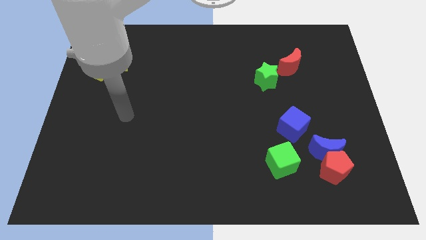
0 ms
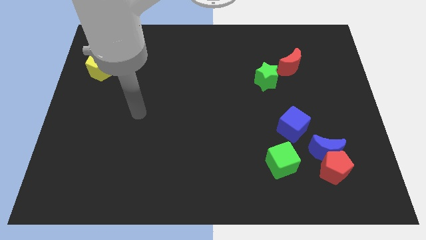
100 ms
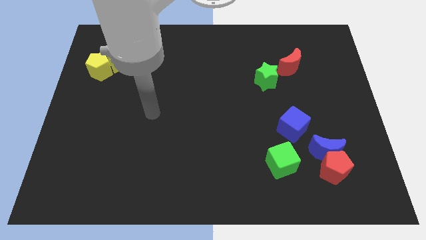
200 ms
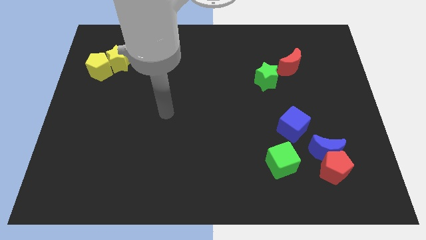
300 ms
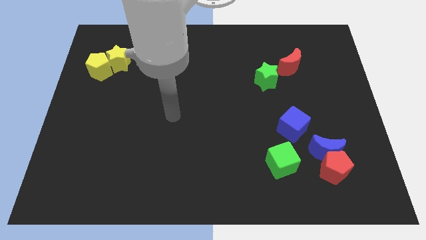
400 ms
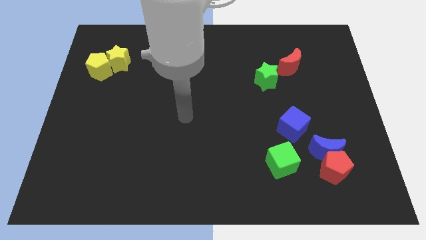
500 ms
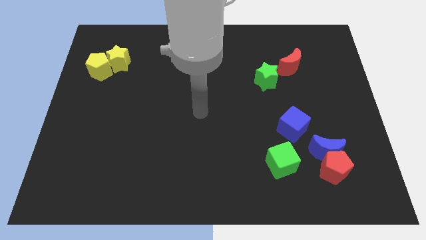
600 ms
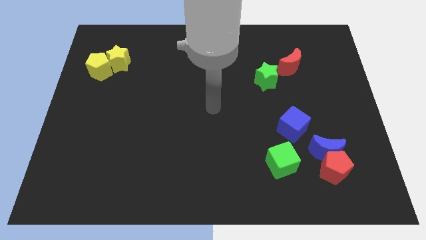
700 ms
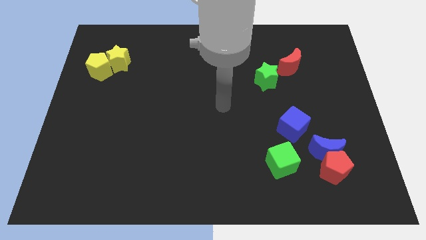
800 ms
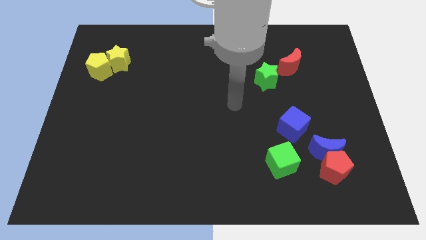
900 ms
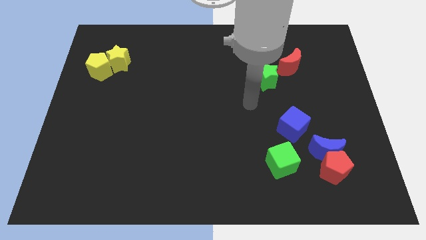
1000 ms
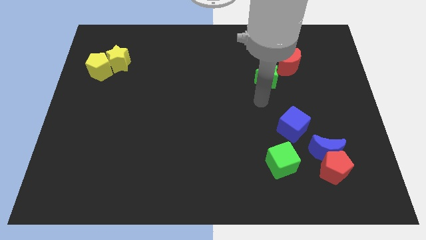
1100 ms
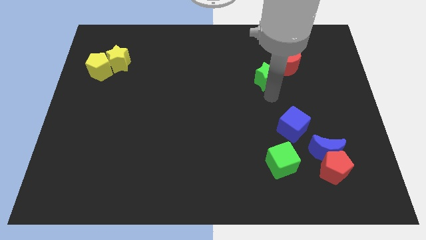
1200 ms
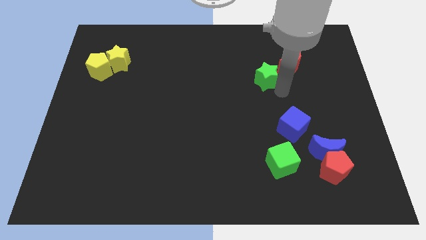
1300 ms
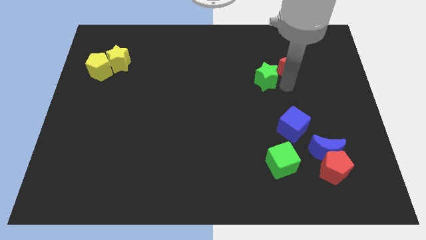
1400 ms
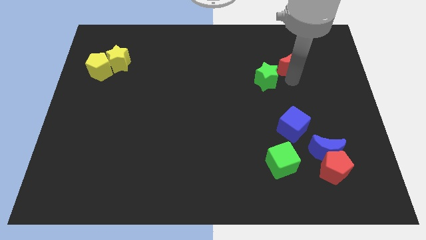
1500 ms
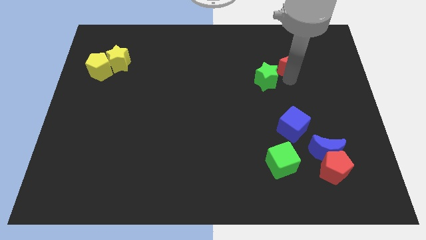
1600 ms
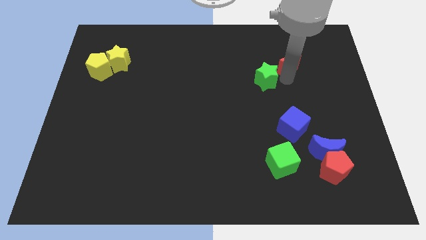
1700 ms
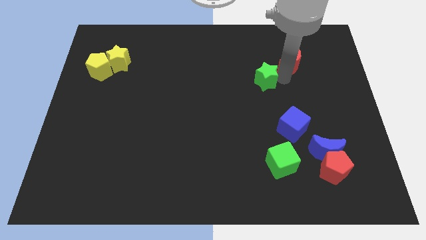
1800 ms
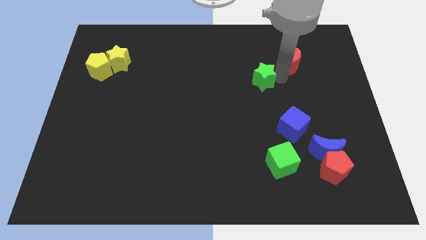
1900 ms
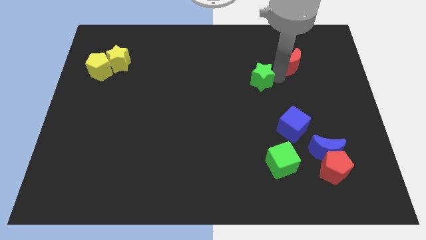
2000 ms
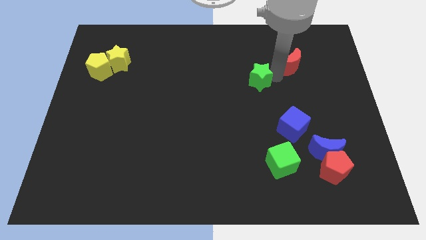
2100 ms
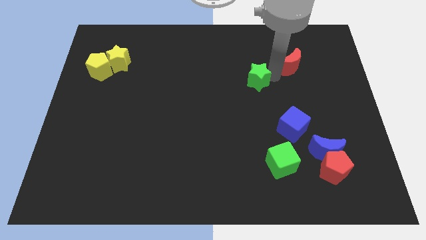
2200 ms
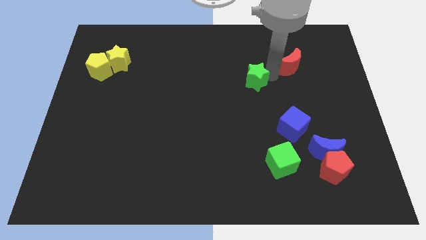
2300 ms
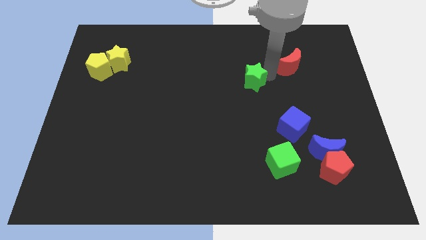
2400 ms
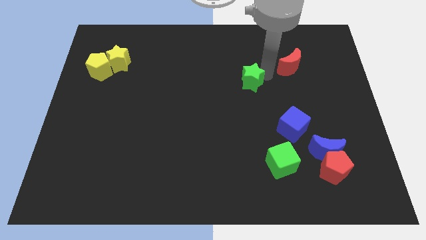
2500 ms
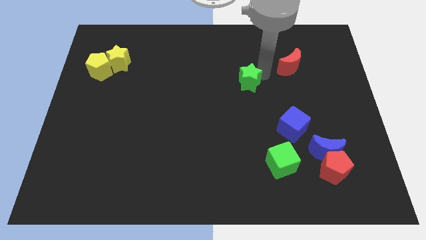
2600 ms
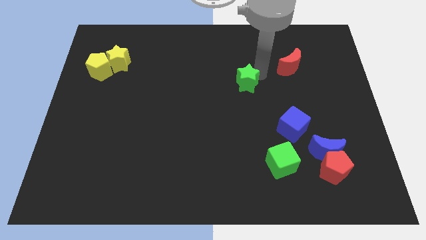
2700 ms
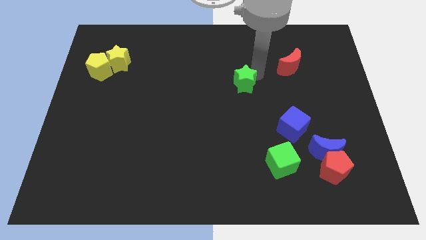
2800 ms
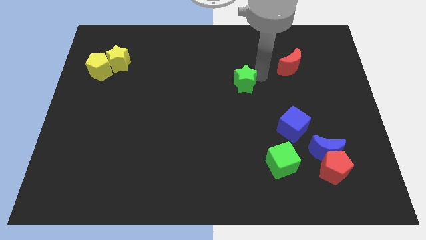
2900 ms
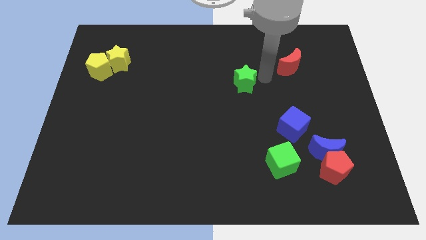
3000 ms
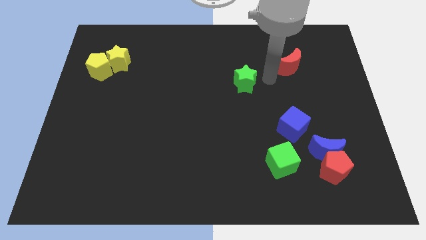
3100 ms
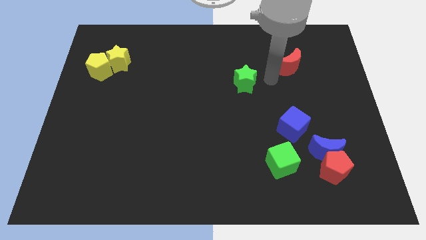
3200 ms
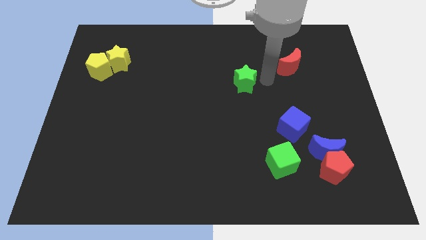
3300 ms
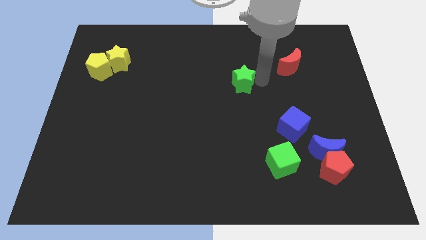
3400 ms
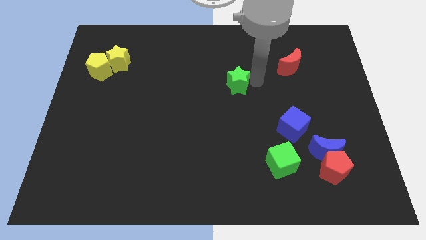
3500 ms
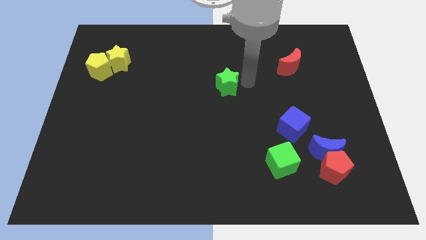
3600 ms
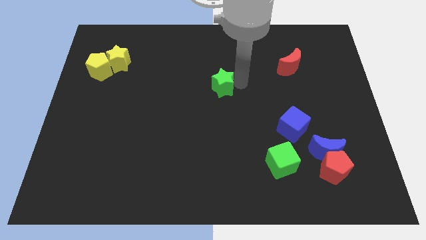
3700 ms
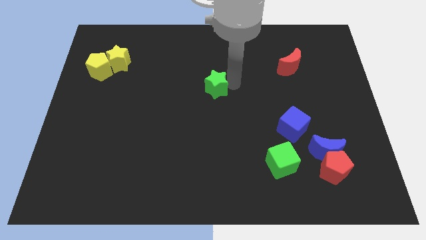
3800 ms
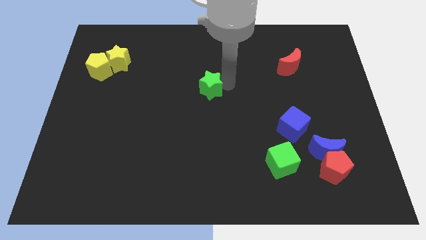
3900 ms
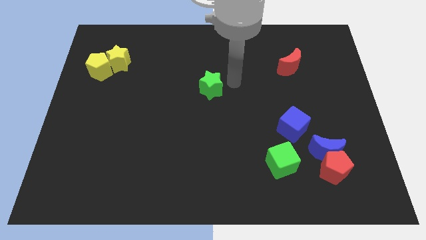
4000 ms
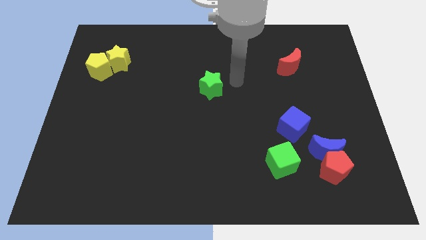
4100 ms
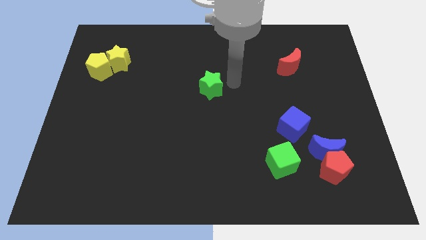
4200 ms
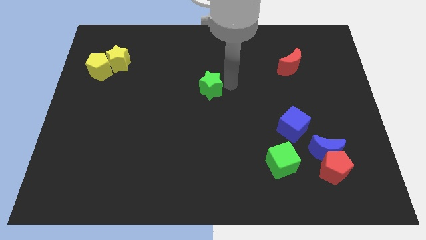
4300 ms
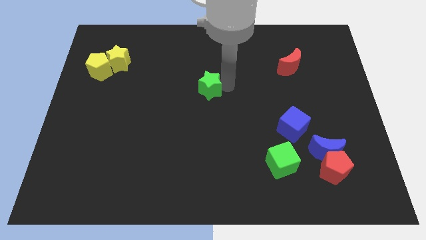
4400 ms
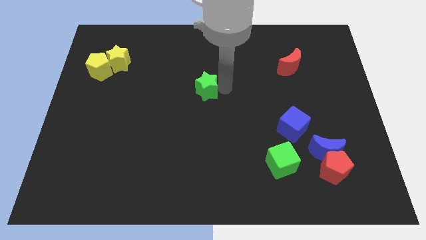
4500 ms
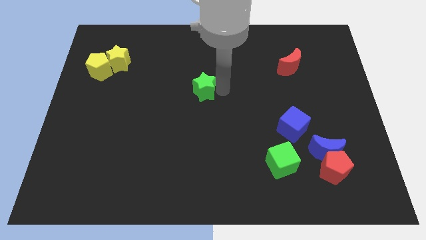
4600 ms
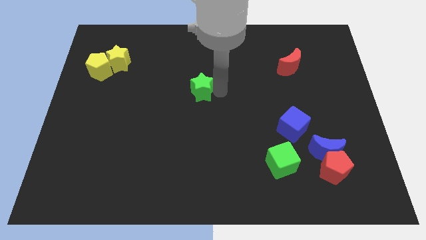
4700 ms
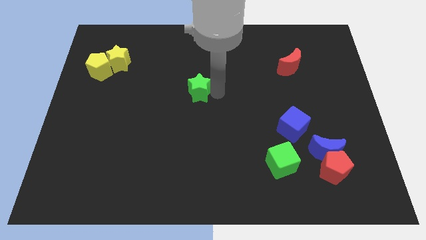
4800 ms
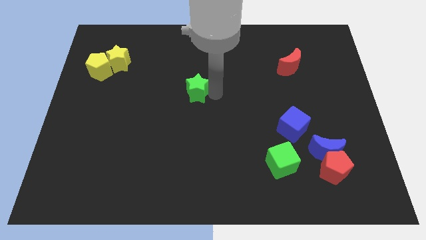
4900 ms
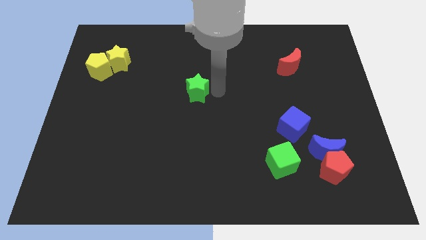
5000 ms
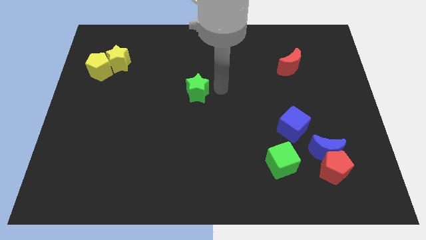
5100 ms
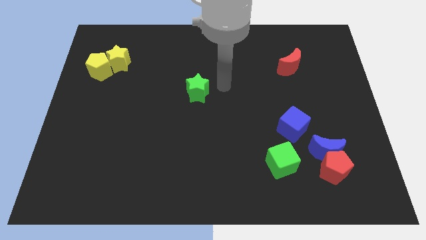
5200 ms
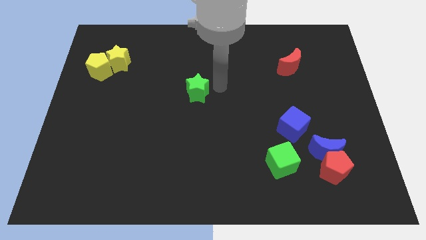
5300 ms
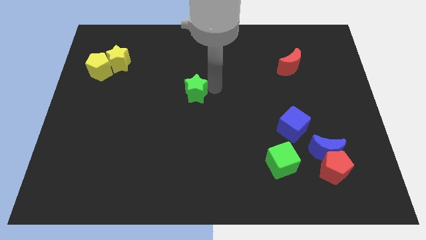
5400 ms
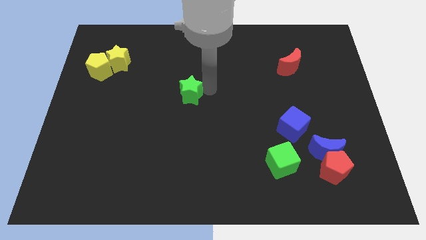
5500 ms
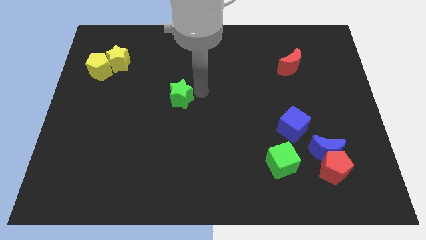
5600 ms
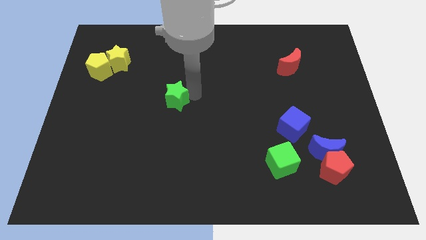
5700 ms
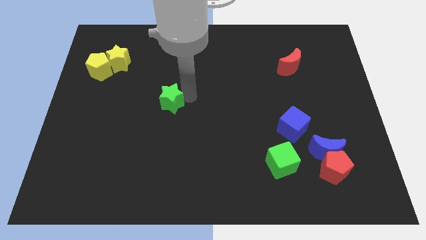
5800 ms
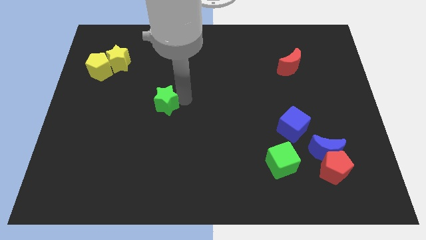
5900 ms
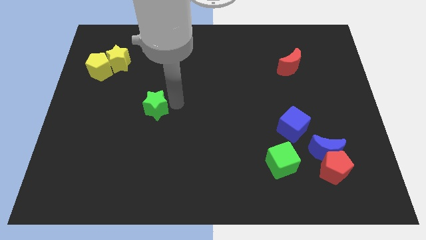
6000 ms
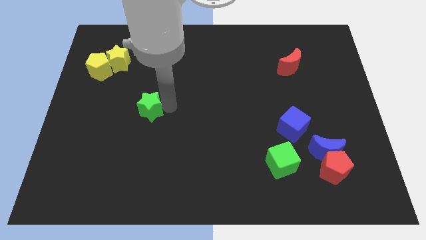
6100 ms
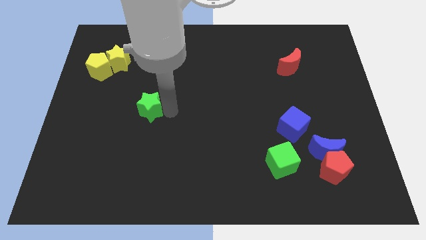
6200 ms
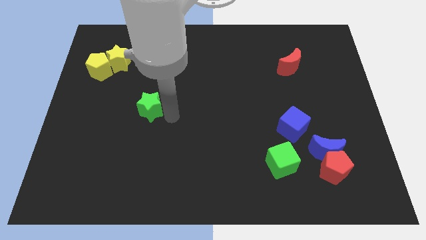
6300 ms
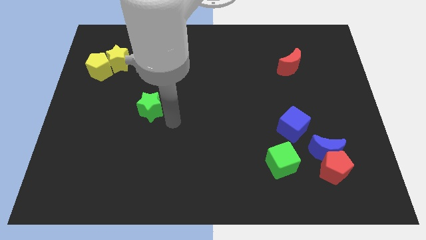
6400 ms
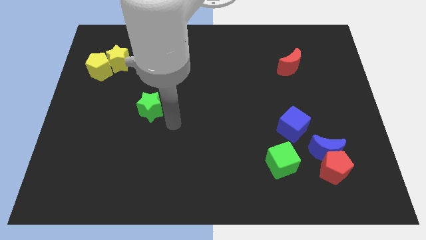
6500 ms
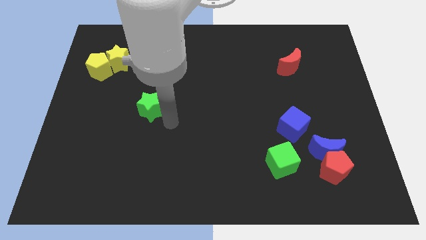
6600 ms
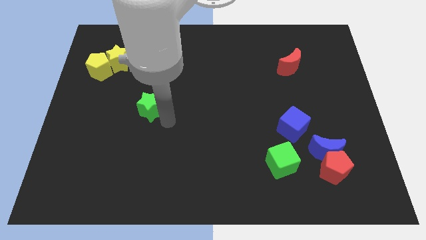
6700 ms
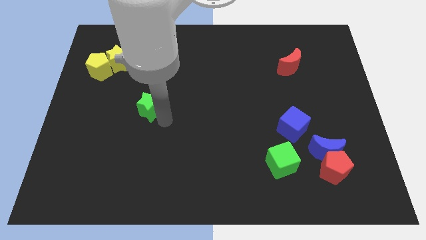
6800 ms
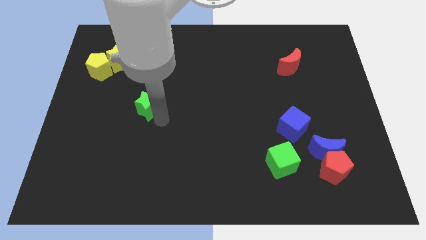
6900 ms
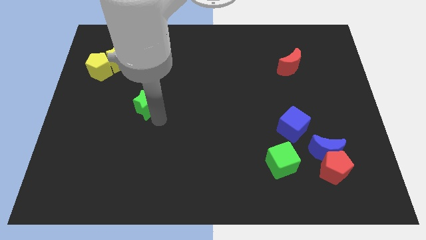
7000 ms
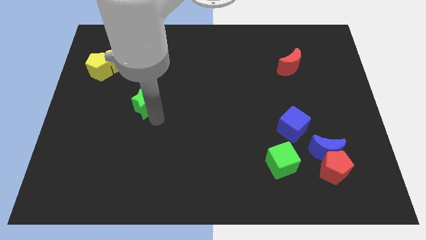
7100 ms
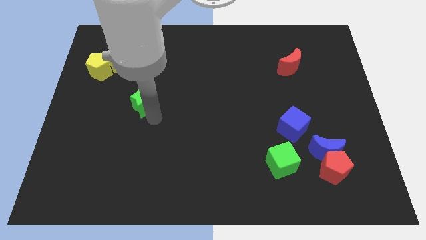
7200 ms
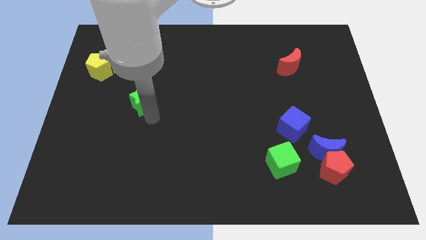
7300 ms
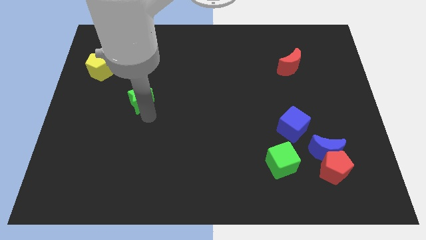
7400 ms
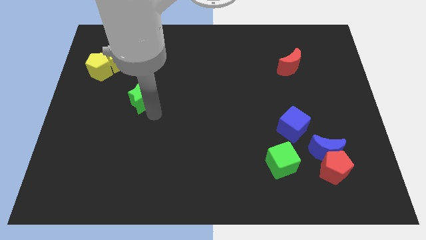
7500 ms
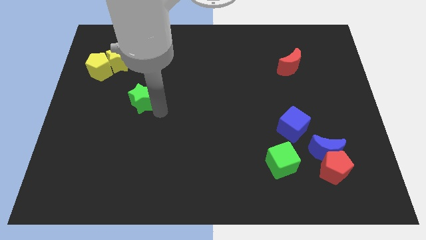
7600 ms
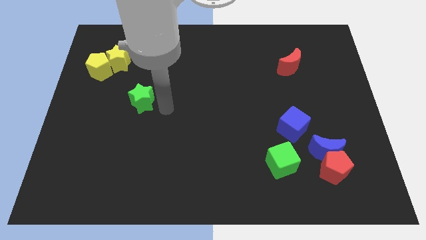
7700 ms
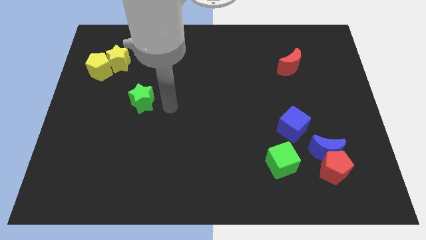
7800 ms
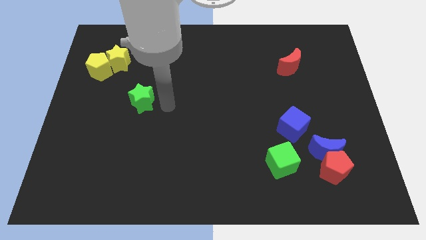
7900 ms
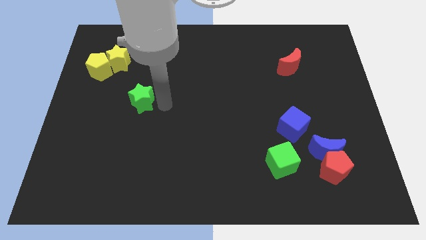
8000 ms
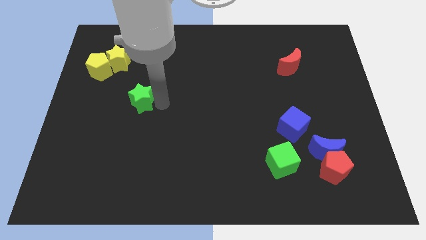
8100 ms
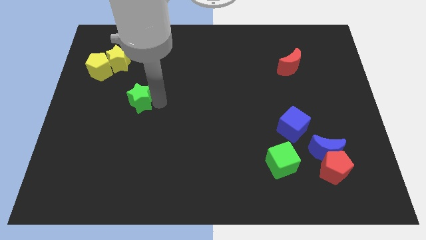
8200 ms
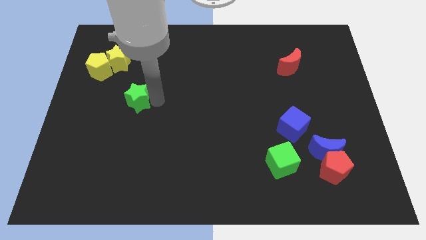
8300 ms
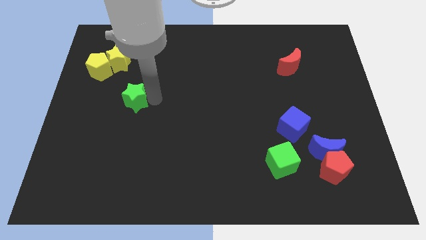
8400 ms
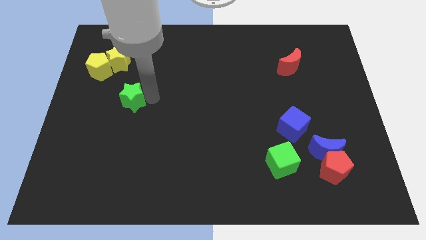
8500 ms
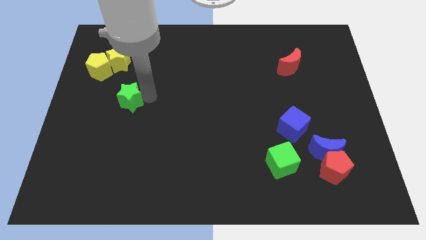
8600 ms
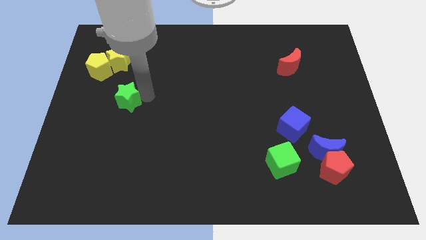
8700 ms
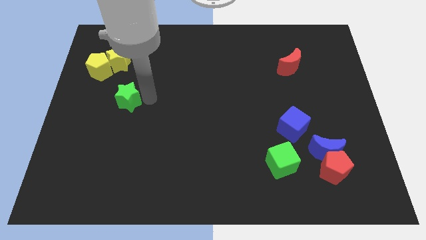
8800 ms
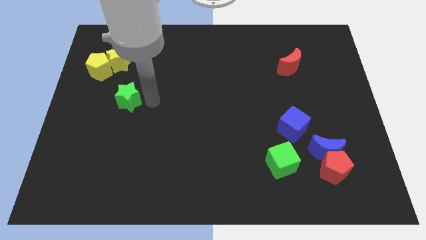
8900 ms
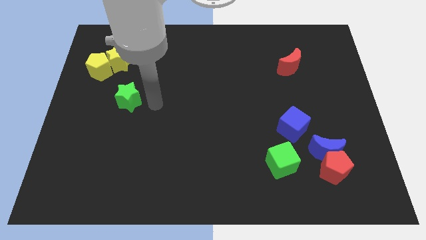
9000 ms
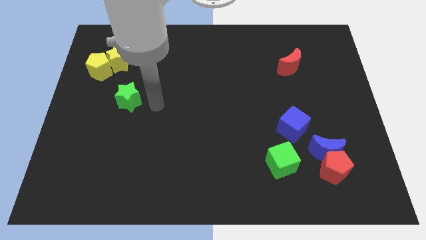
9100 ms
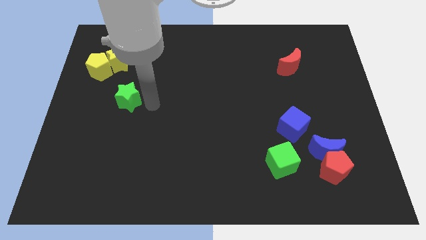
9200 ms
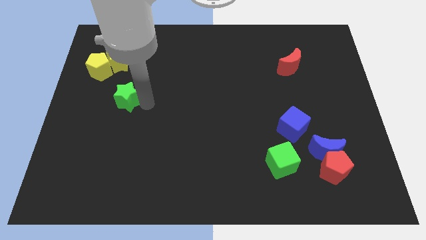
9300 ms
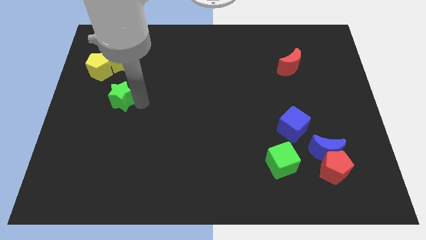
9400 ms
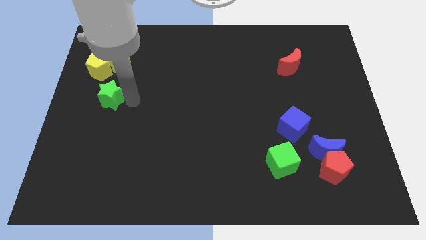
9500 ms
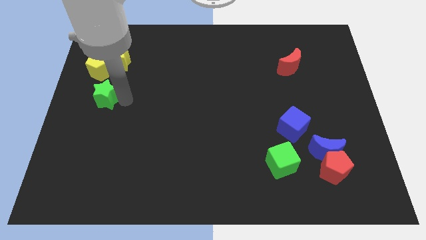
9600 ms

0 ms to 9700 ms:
put the green star to the left side
